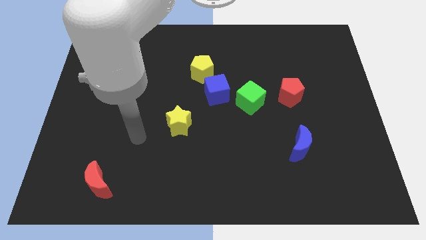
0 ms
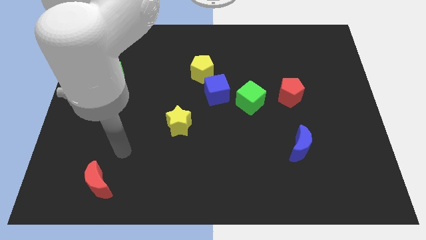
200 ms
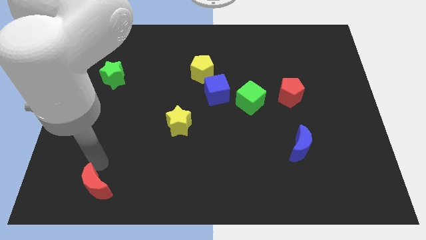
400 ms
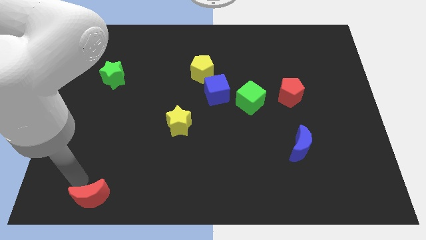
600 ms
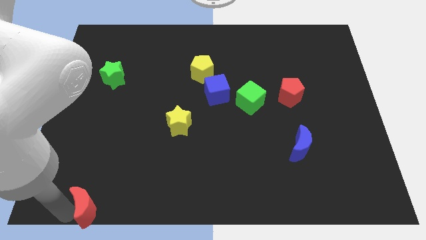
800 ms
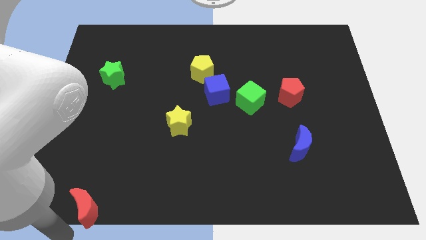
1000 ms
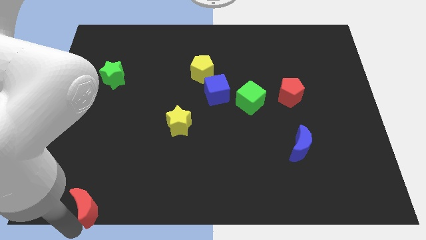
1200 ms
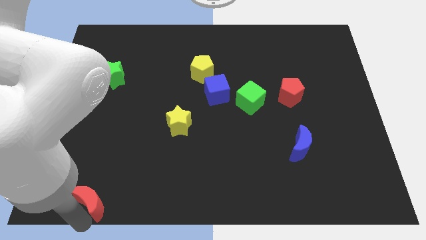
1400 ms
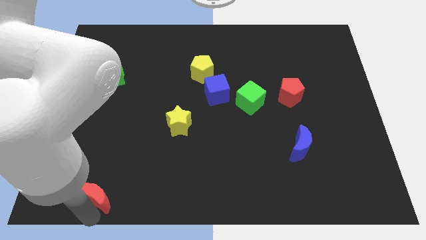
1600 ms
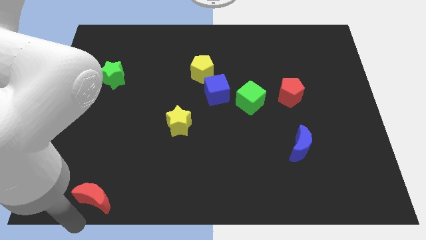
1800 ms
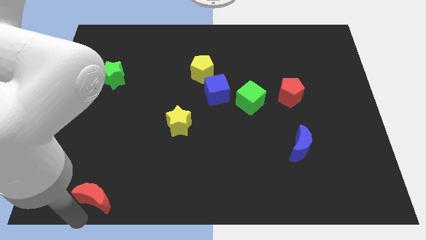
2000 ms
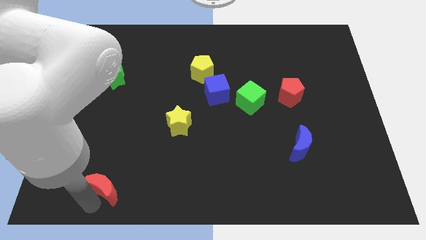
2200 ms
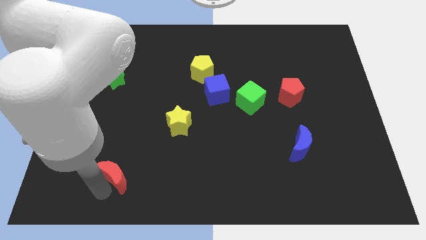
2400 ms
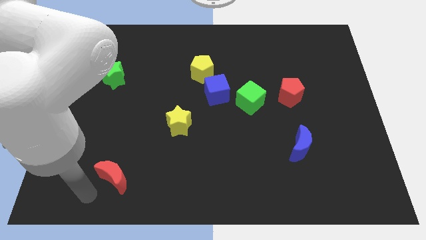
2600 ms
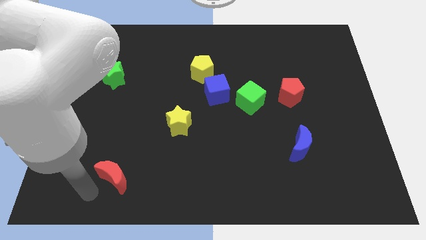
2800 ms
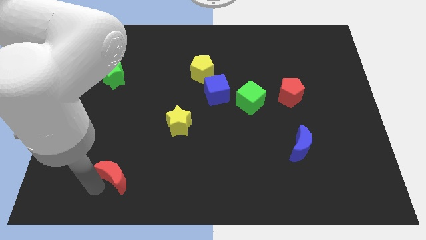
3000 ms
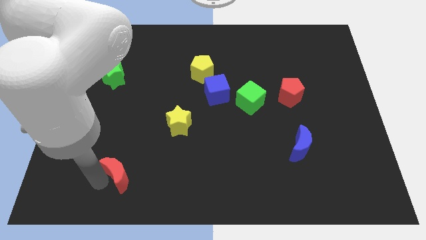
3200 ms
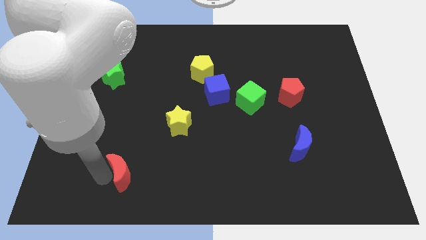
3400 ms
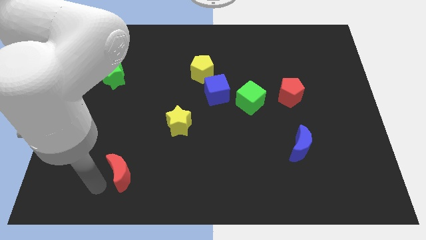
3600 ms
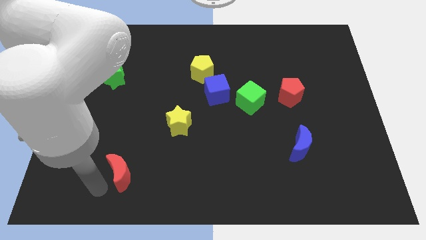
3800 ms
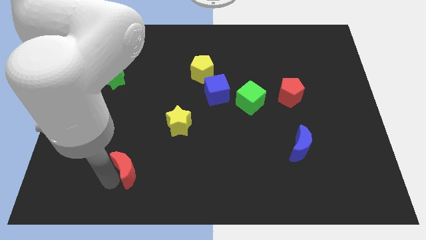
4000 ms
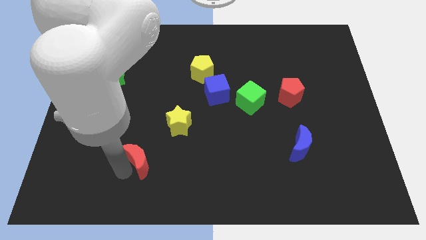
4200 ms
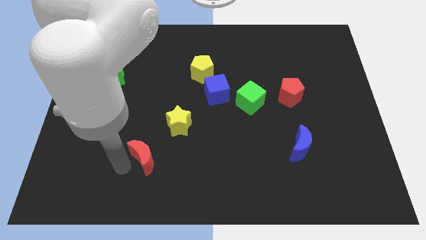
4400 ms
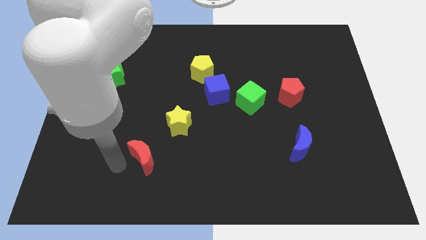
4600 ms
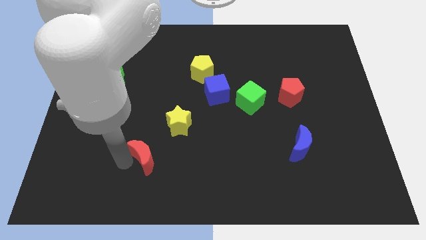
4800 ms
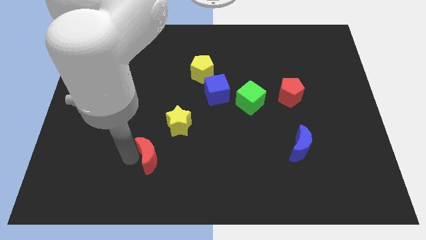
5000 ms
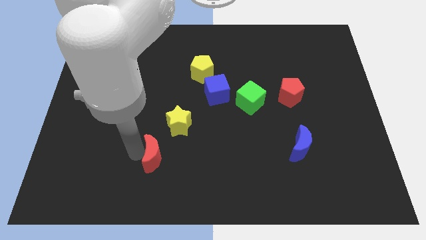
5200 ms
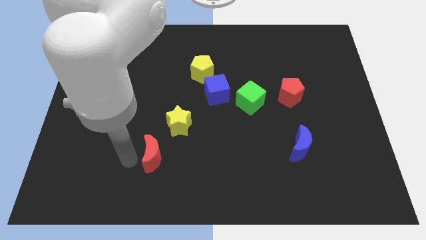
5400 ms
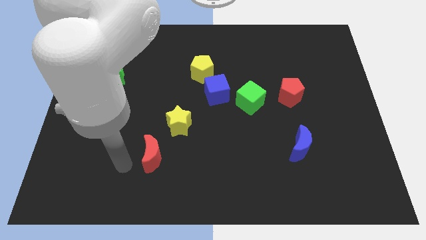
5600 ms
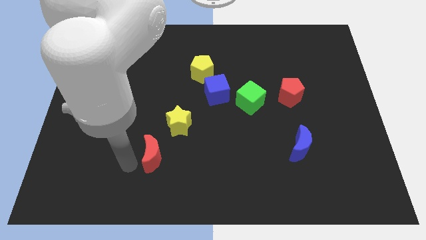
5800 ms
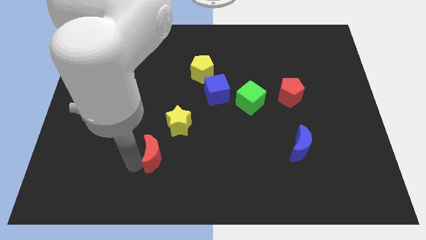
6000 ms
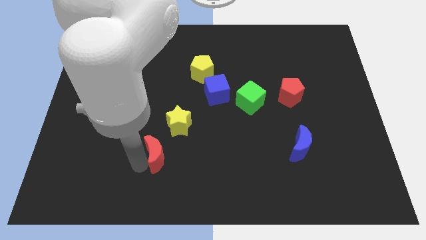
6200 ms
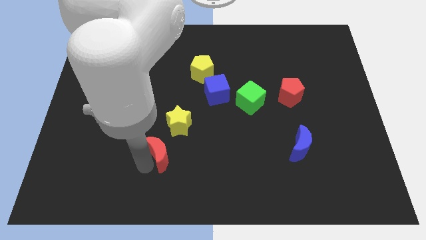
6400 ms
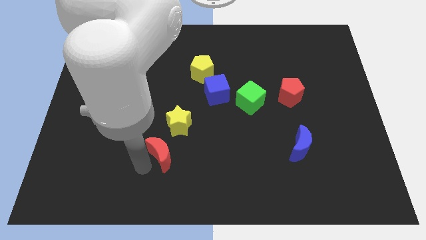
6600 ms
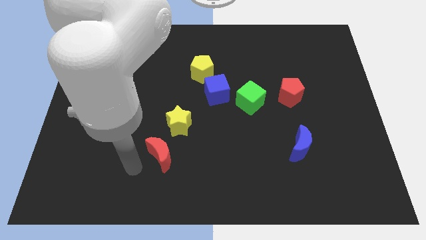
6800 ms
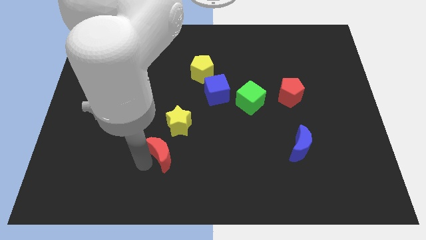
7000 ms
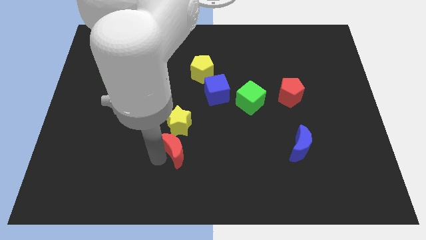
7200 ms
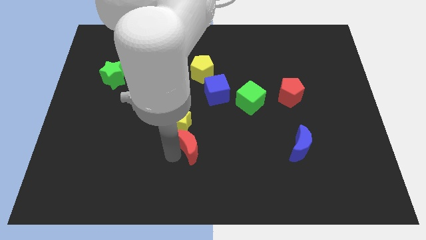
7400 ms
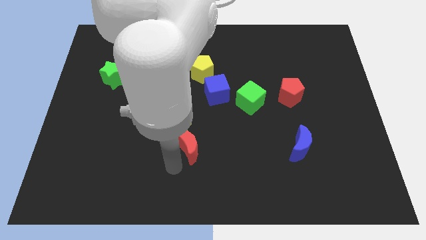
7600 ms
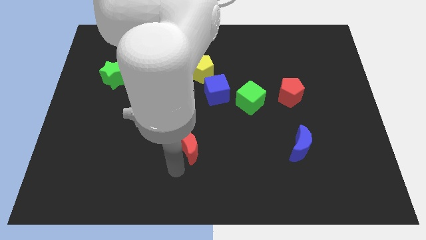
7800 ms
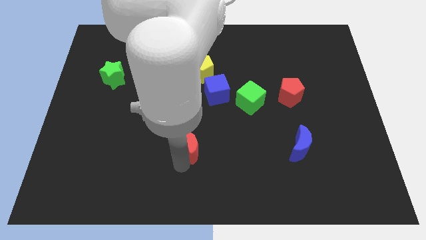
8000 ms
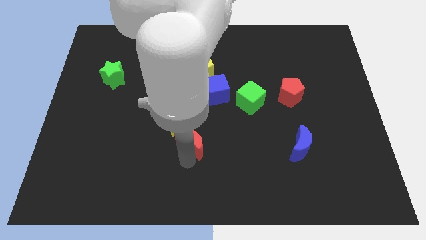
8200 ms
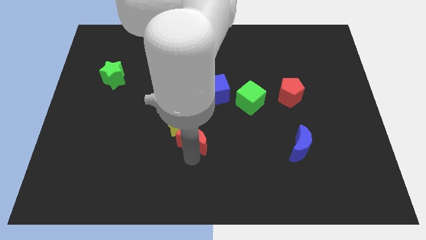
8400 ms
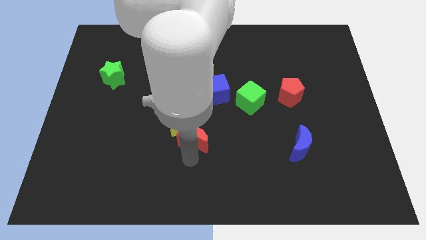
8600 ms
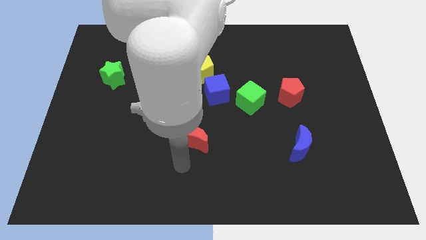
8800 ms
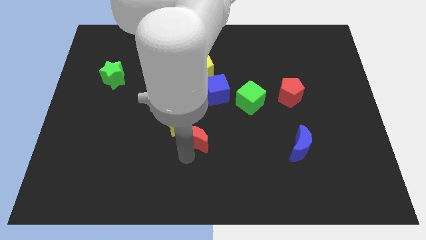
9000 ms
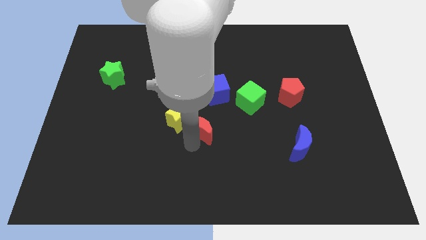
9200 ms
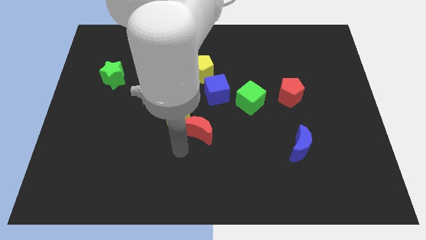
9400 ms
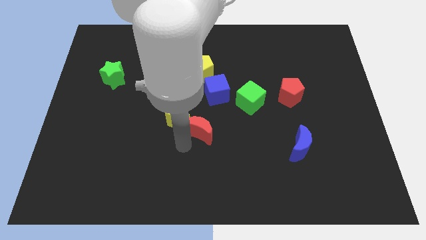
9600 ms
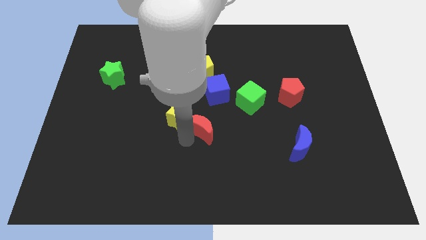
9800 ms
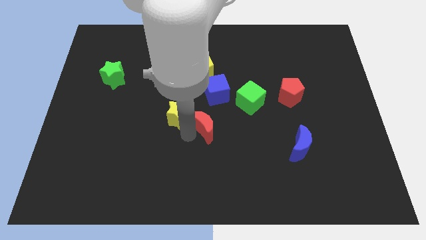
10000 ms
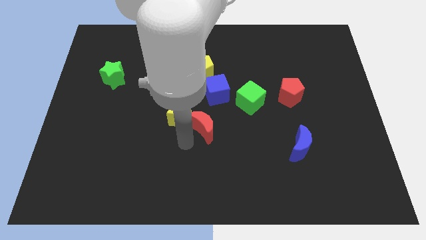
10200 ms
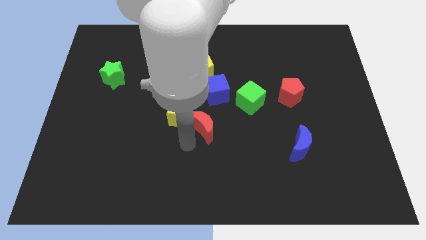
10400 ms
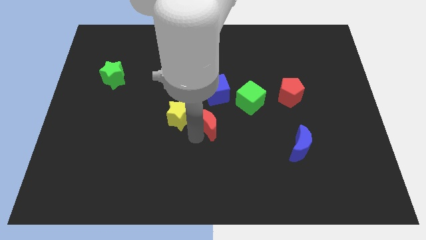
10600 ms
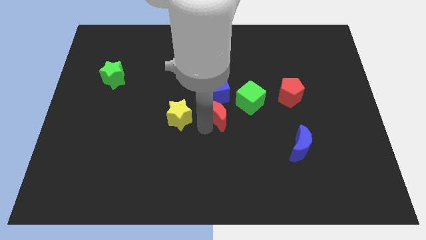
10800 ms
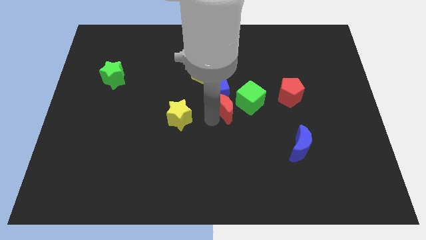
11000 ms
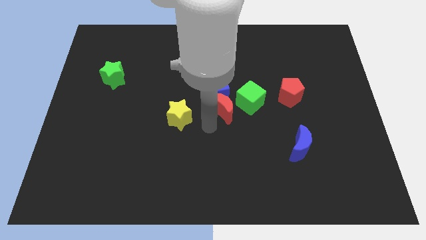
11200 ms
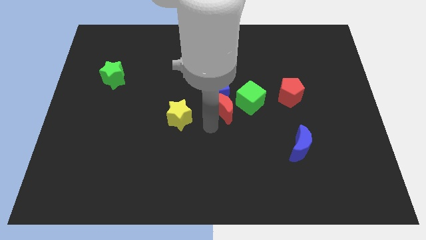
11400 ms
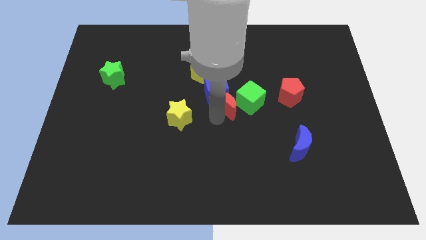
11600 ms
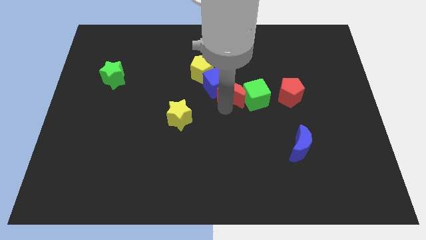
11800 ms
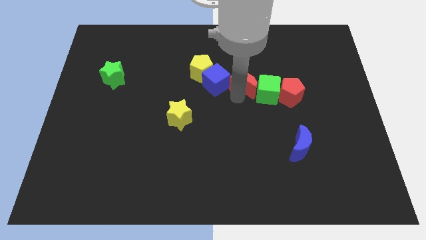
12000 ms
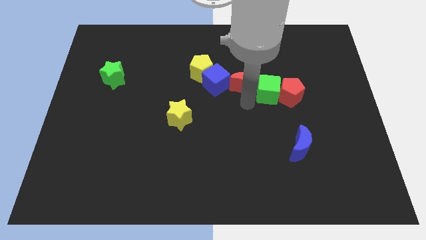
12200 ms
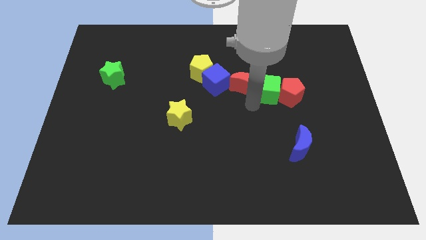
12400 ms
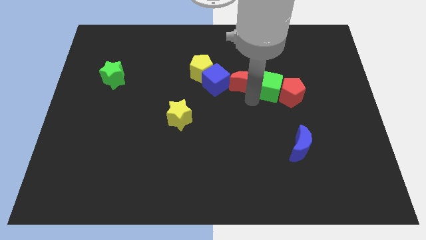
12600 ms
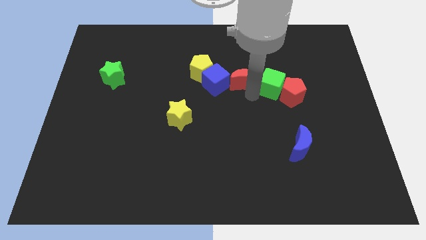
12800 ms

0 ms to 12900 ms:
slide the red moon diagonally up and to the right of the blue cube
